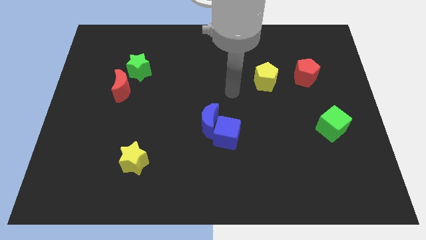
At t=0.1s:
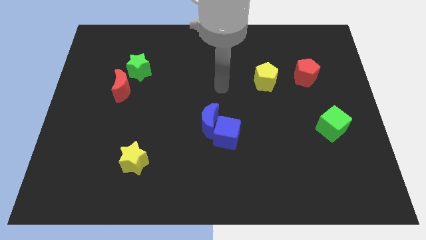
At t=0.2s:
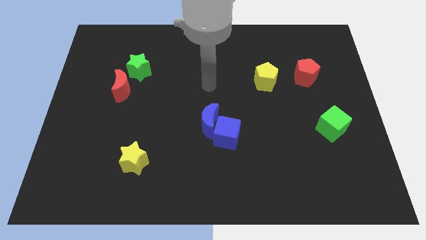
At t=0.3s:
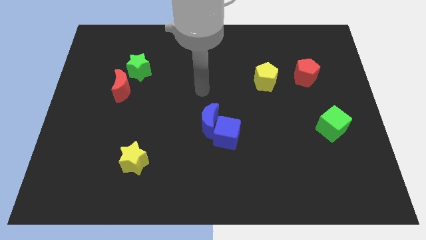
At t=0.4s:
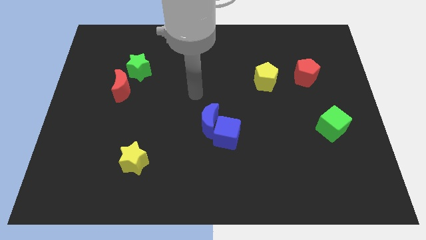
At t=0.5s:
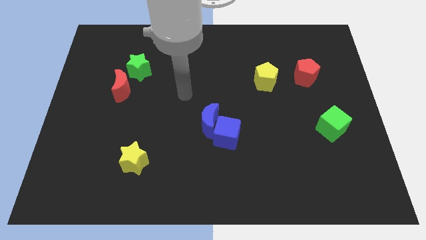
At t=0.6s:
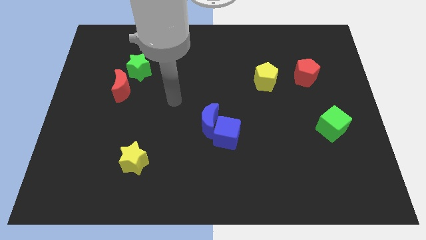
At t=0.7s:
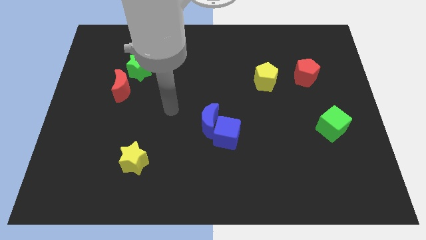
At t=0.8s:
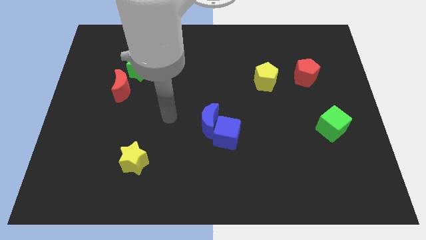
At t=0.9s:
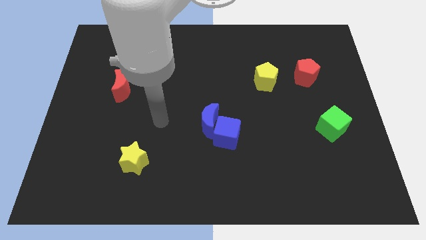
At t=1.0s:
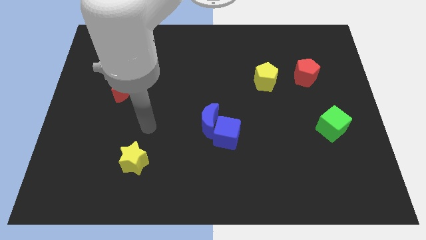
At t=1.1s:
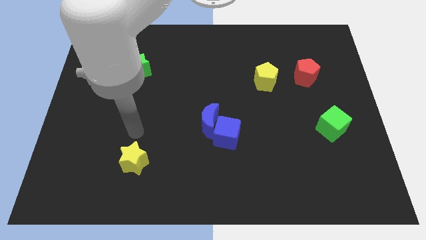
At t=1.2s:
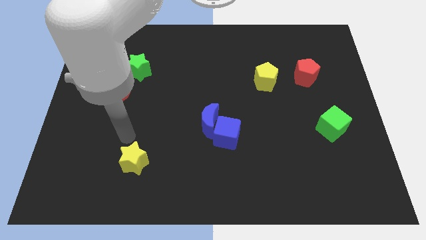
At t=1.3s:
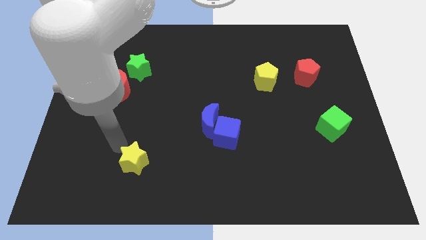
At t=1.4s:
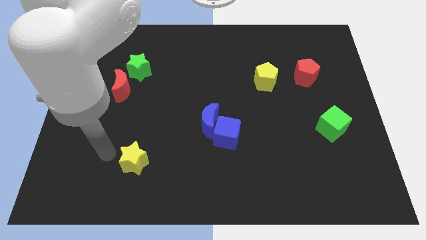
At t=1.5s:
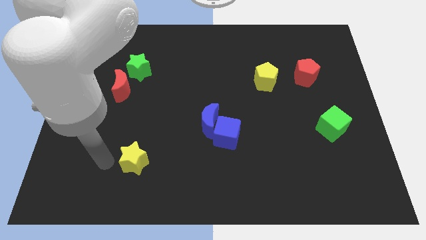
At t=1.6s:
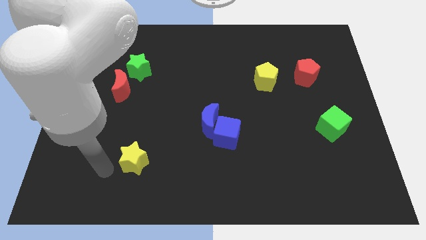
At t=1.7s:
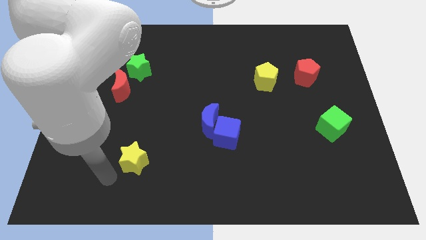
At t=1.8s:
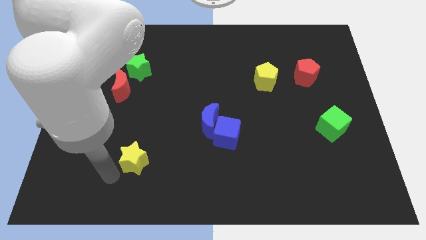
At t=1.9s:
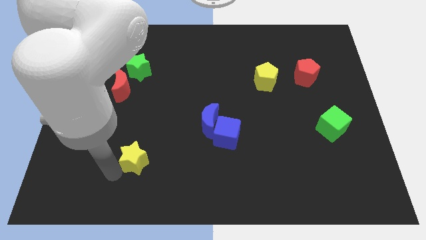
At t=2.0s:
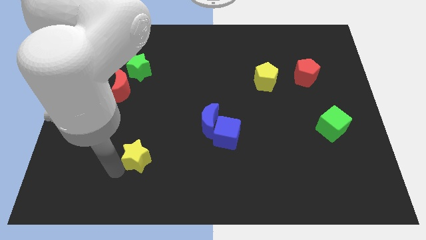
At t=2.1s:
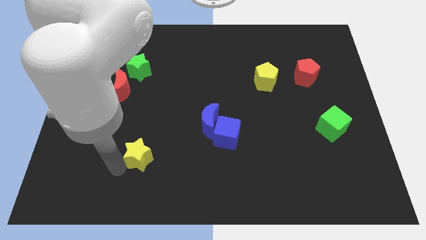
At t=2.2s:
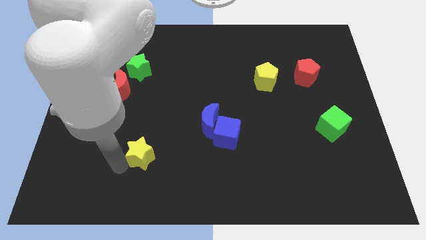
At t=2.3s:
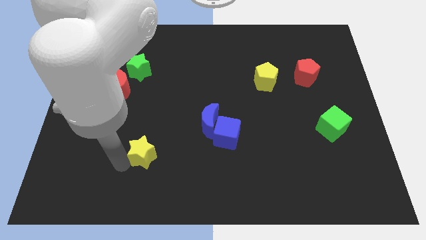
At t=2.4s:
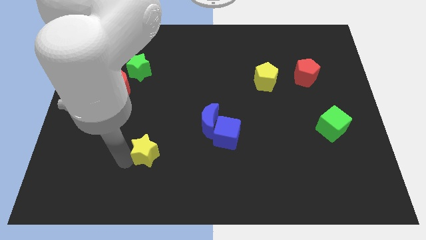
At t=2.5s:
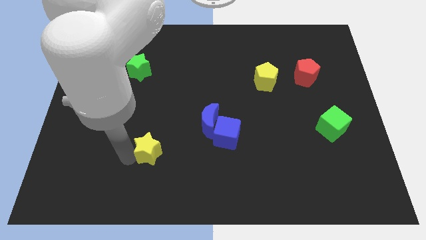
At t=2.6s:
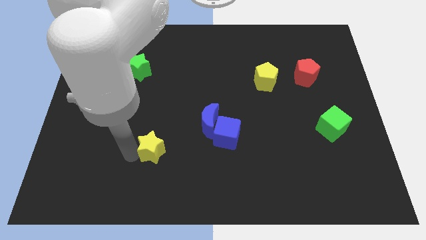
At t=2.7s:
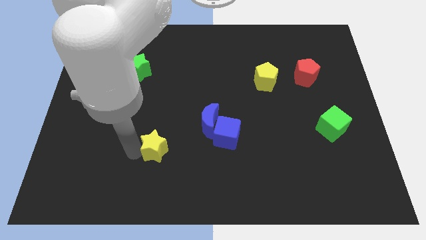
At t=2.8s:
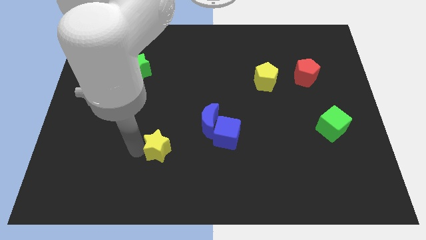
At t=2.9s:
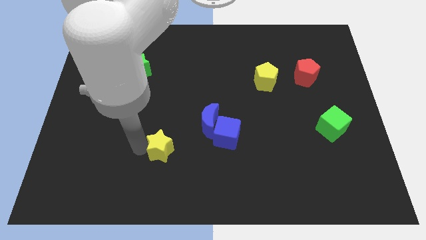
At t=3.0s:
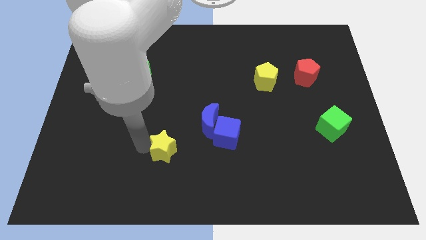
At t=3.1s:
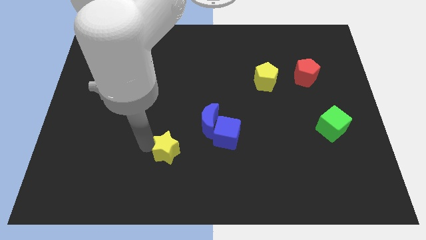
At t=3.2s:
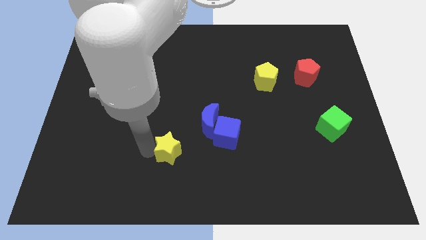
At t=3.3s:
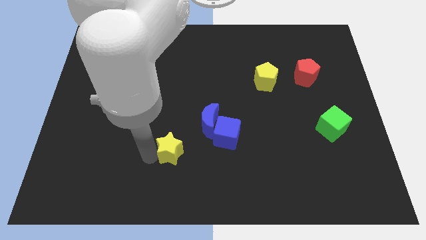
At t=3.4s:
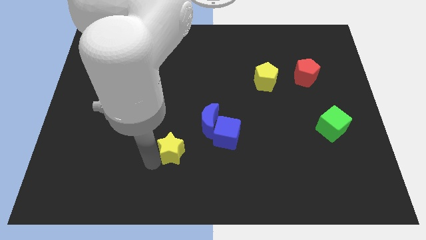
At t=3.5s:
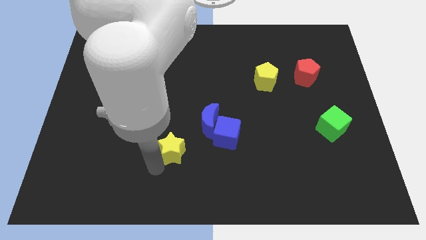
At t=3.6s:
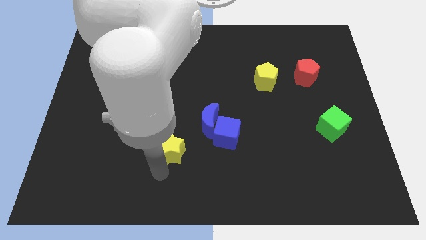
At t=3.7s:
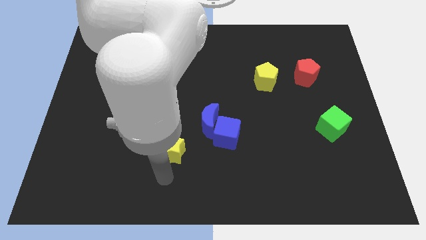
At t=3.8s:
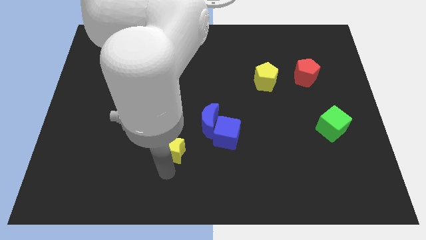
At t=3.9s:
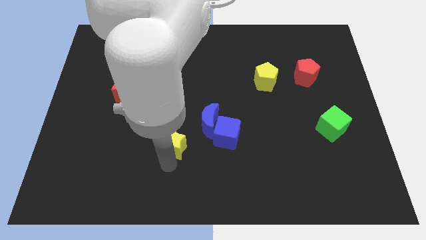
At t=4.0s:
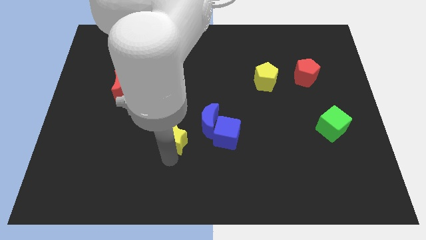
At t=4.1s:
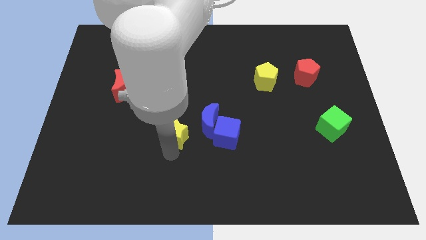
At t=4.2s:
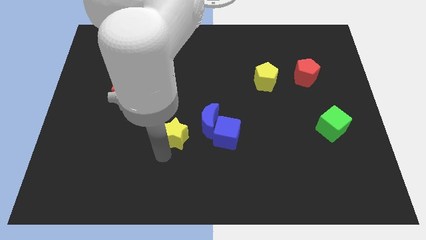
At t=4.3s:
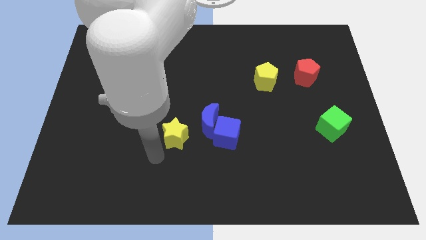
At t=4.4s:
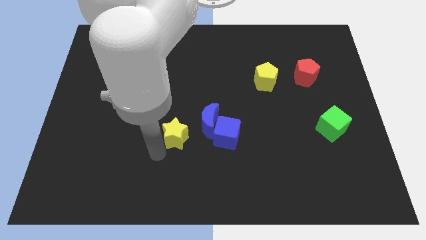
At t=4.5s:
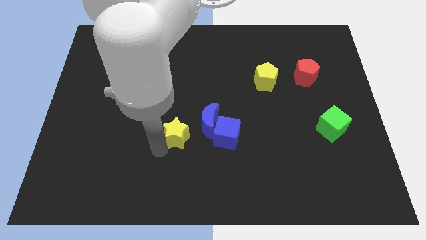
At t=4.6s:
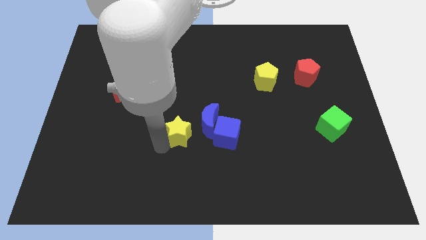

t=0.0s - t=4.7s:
move the yellow star to the middle of the board
